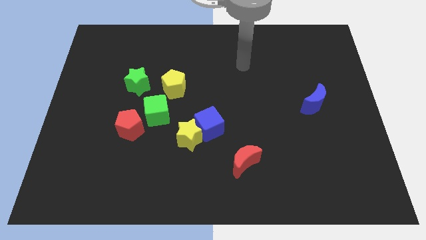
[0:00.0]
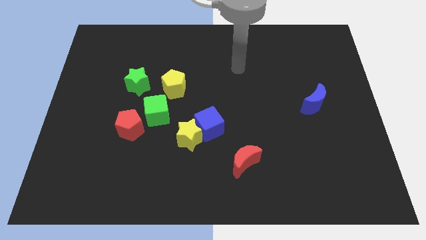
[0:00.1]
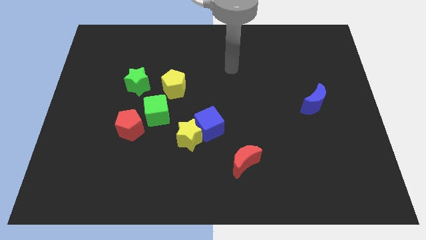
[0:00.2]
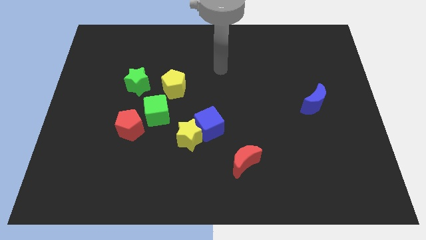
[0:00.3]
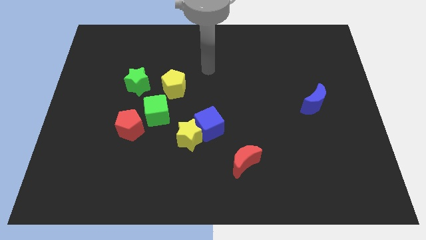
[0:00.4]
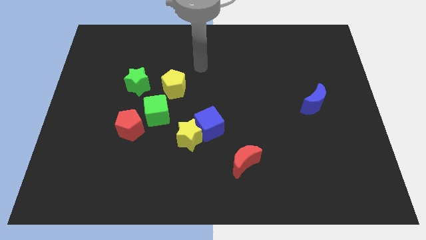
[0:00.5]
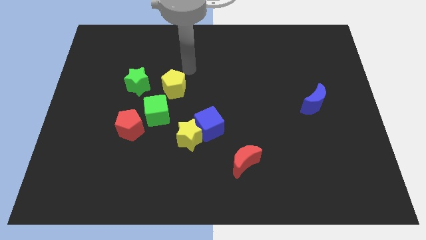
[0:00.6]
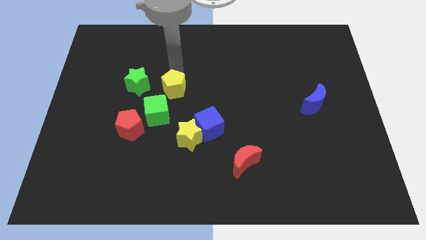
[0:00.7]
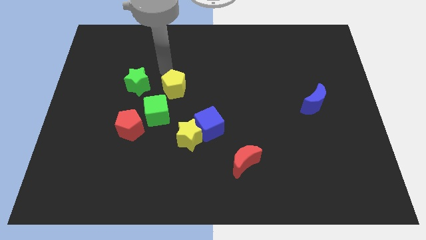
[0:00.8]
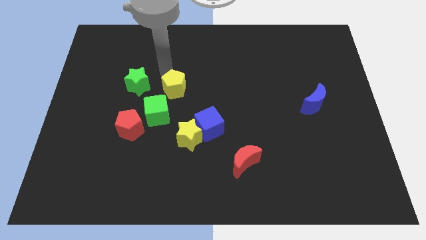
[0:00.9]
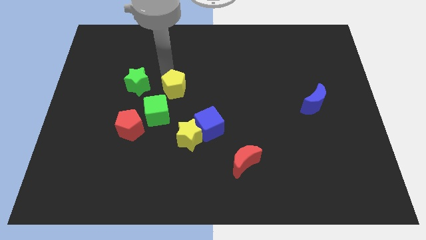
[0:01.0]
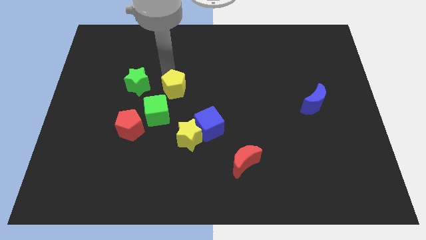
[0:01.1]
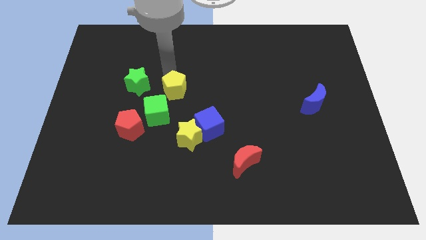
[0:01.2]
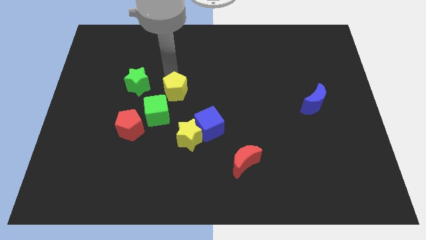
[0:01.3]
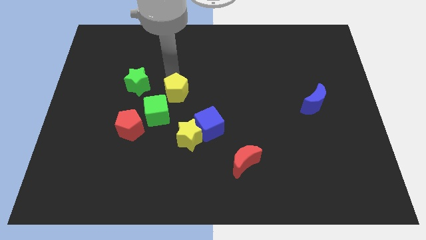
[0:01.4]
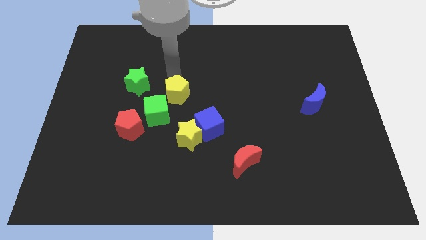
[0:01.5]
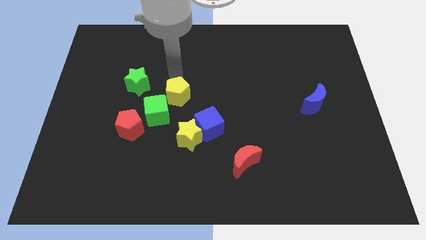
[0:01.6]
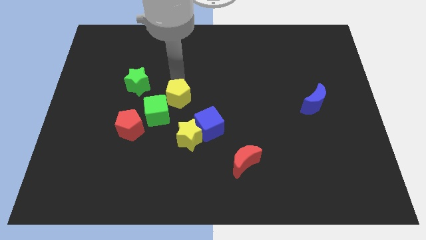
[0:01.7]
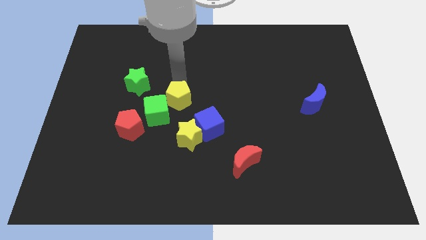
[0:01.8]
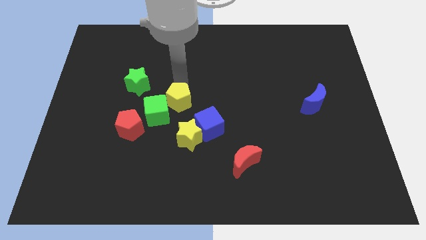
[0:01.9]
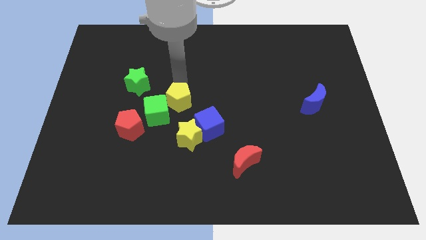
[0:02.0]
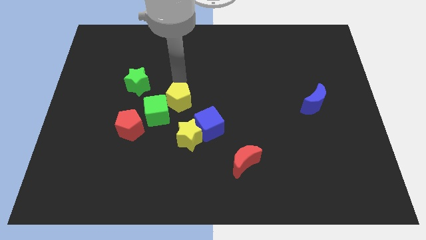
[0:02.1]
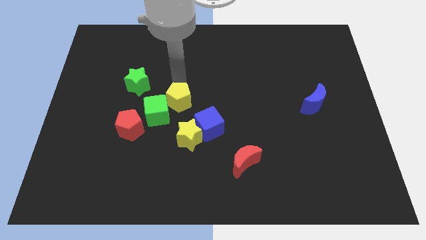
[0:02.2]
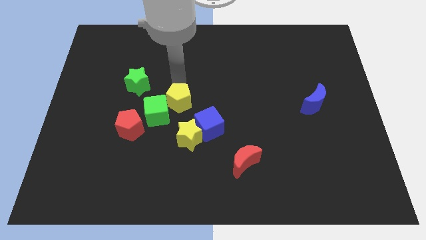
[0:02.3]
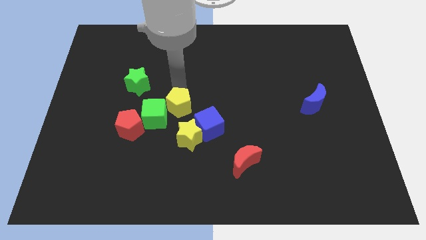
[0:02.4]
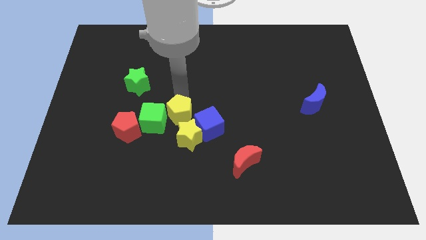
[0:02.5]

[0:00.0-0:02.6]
slightly push the yellow pentagon downwards

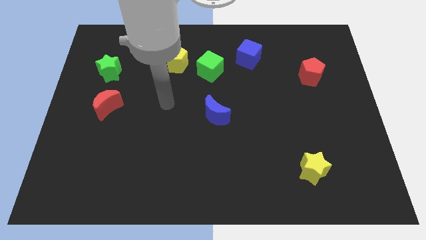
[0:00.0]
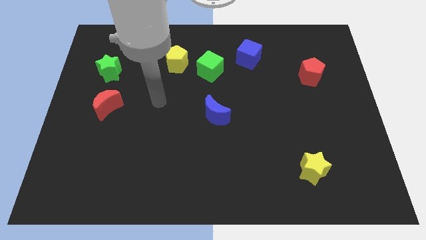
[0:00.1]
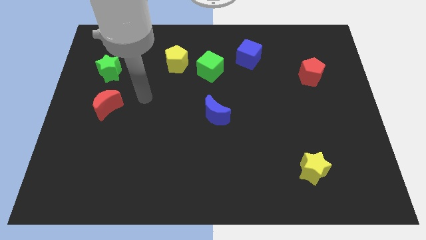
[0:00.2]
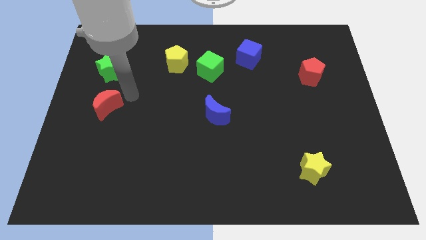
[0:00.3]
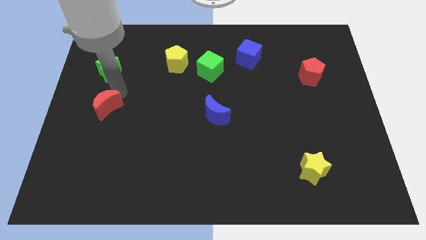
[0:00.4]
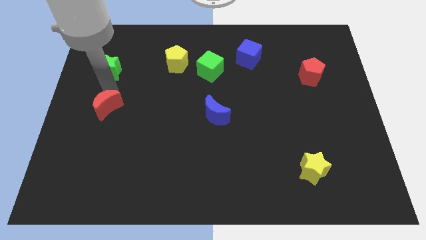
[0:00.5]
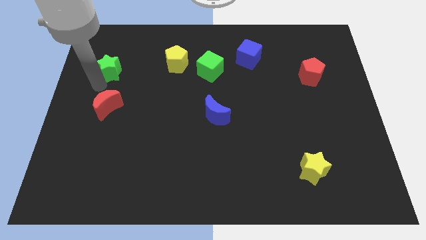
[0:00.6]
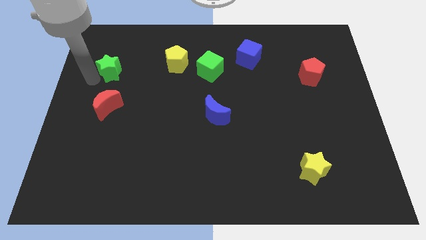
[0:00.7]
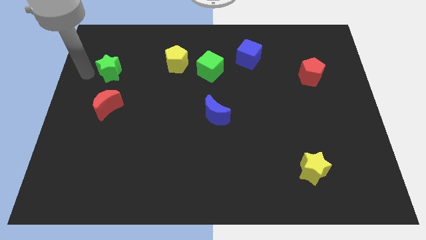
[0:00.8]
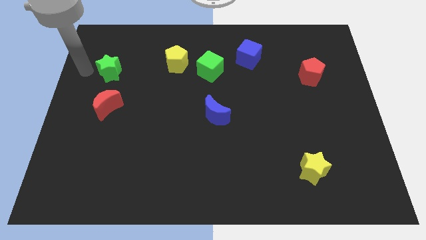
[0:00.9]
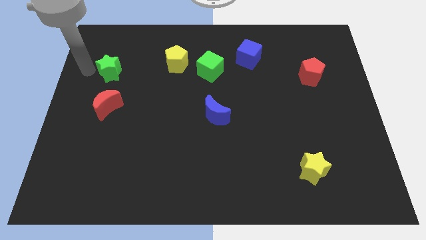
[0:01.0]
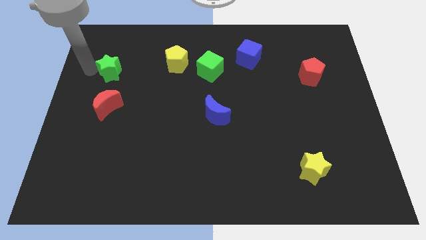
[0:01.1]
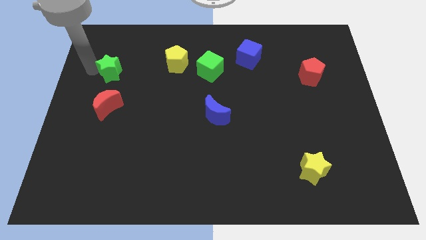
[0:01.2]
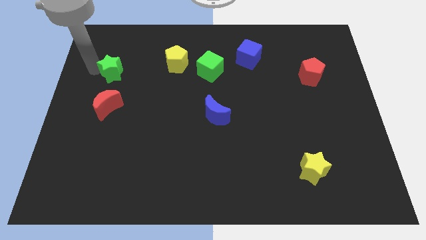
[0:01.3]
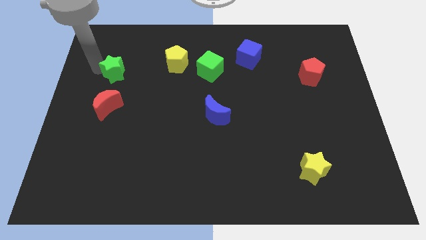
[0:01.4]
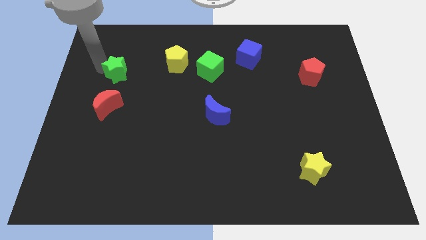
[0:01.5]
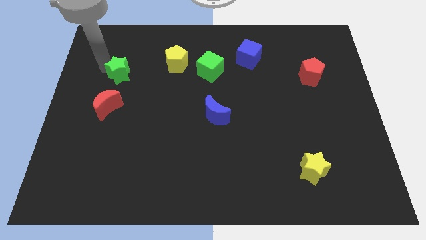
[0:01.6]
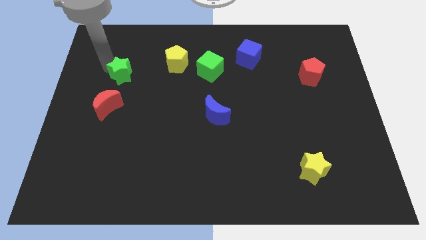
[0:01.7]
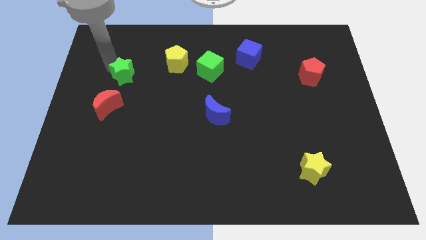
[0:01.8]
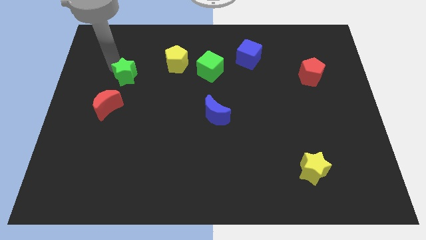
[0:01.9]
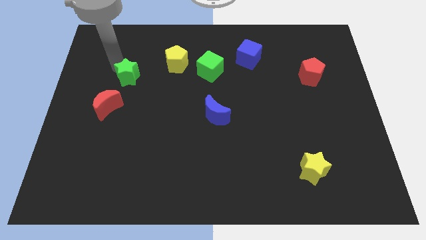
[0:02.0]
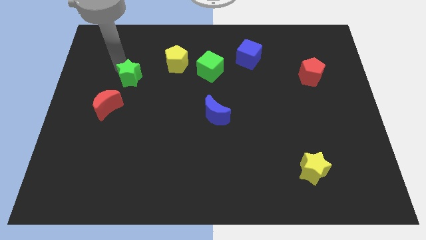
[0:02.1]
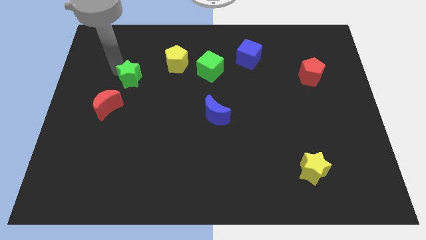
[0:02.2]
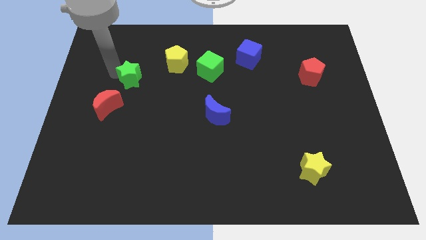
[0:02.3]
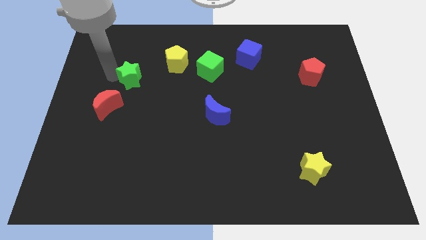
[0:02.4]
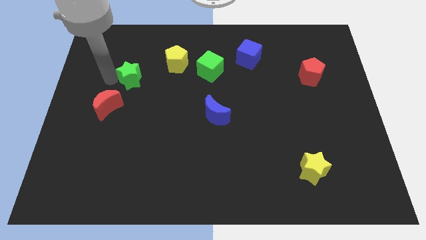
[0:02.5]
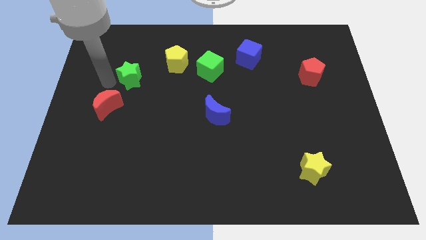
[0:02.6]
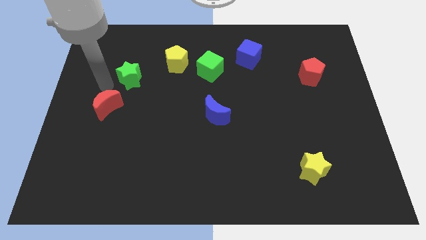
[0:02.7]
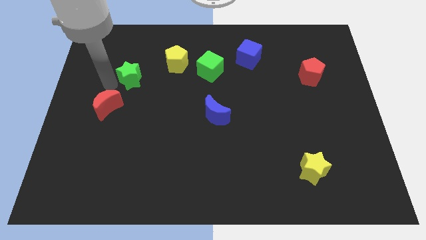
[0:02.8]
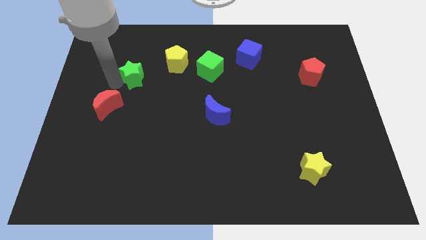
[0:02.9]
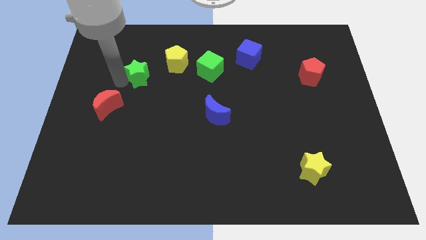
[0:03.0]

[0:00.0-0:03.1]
move the green star somewhat right

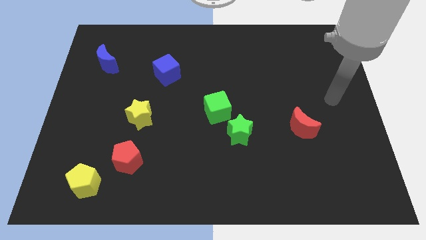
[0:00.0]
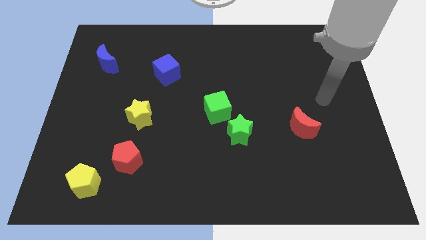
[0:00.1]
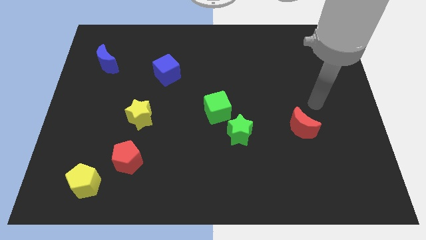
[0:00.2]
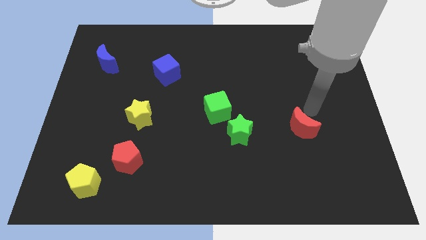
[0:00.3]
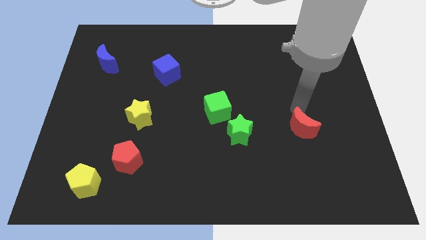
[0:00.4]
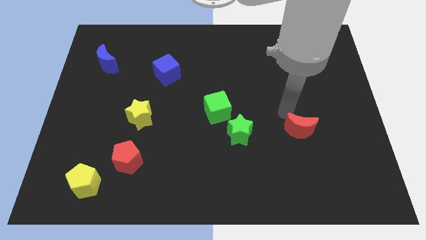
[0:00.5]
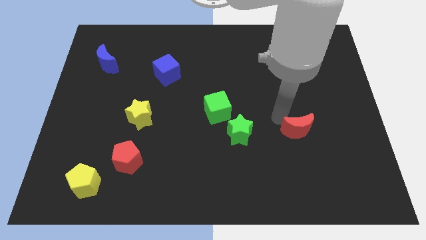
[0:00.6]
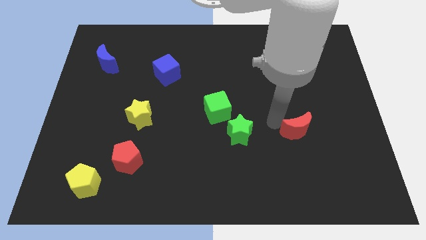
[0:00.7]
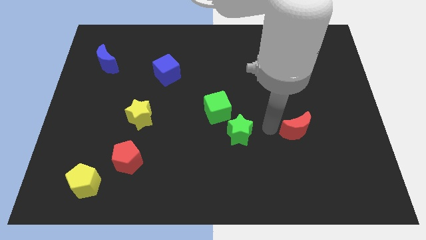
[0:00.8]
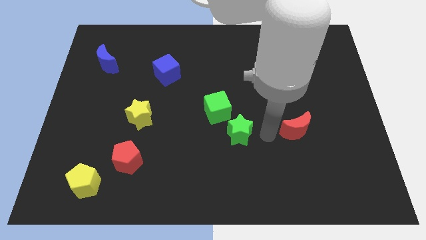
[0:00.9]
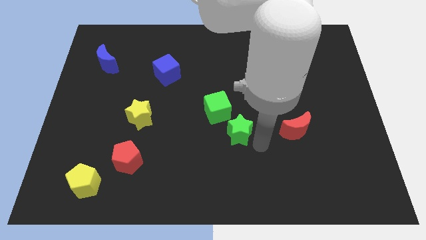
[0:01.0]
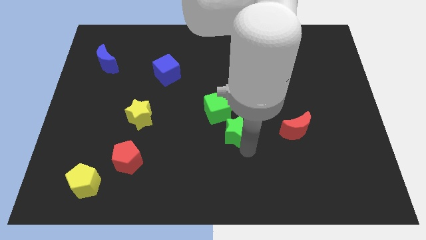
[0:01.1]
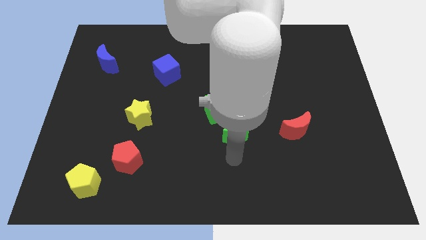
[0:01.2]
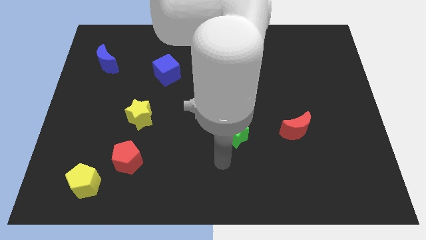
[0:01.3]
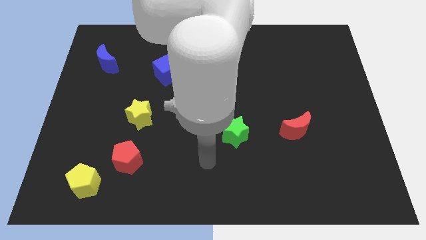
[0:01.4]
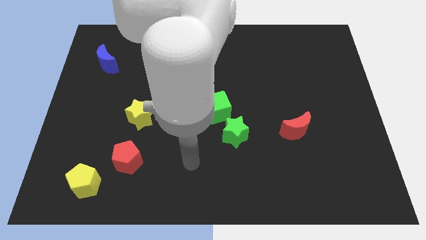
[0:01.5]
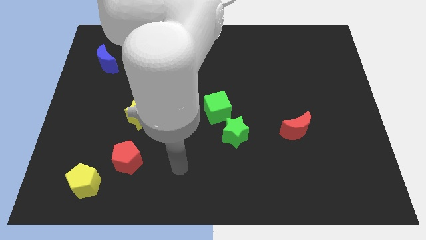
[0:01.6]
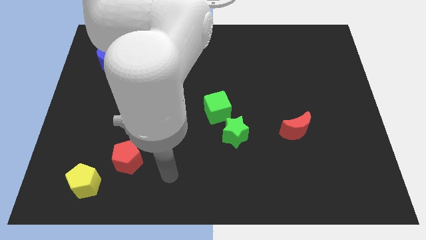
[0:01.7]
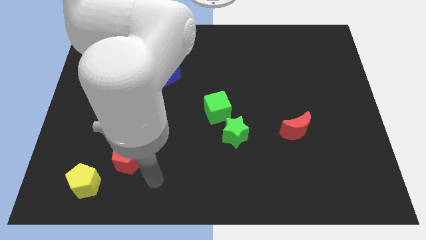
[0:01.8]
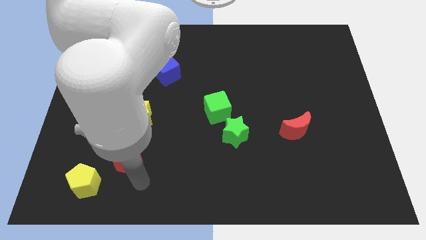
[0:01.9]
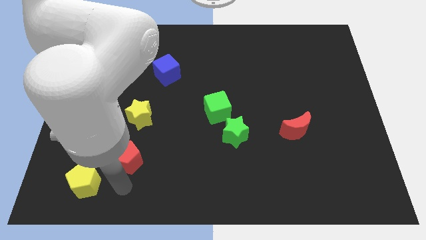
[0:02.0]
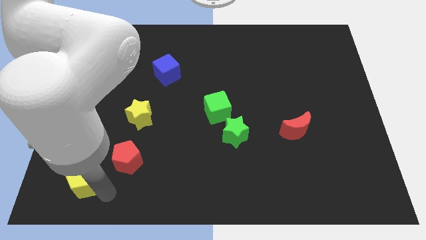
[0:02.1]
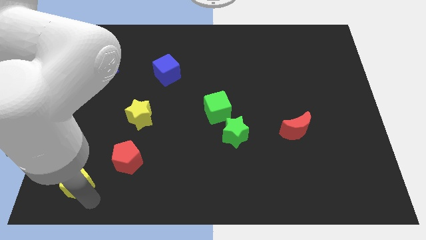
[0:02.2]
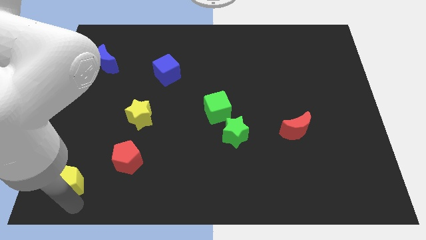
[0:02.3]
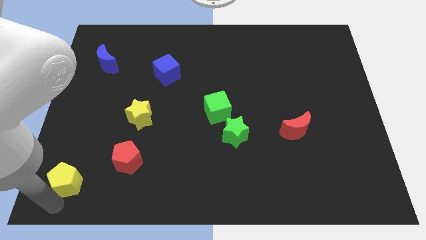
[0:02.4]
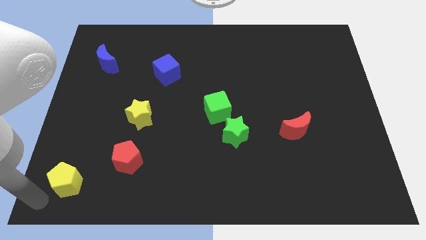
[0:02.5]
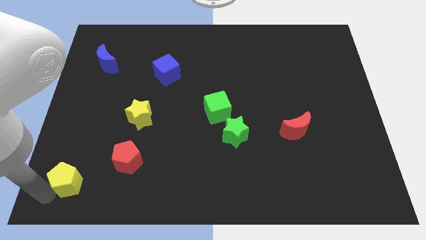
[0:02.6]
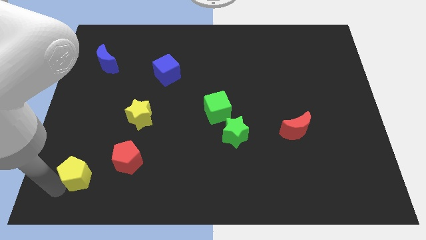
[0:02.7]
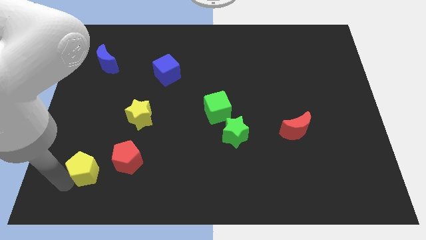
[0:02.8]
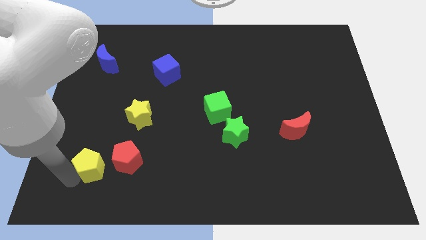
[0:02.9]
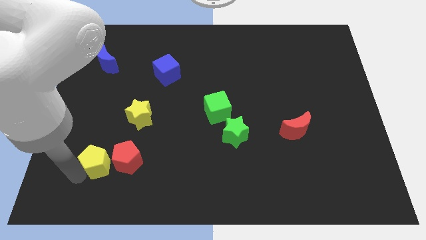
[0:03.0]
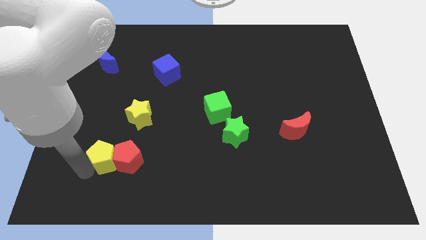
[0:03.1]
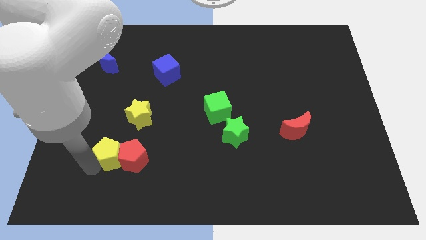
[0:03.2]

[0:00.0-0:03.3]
move the yellow pentagon diagonally up and right slightly
